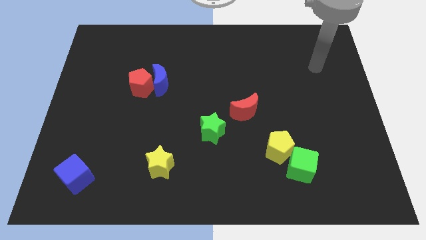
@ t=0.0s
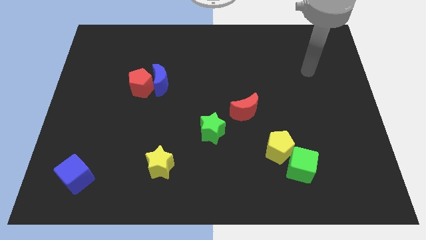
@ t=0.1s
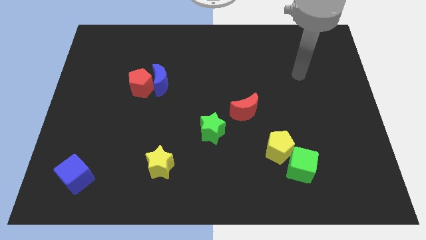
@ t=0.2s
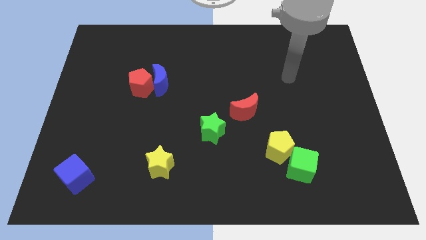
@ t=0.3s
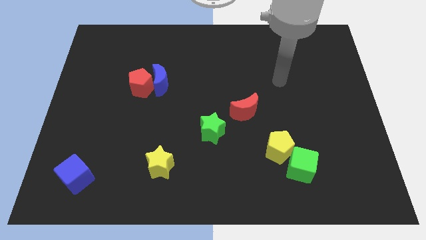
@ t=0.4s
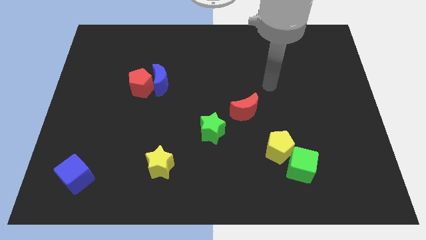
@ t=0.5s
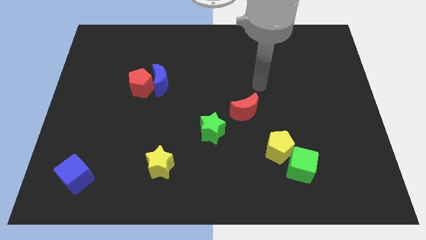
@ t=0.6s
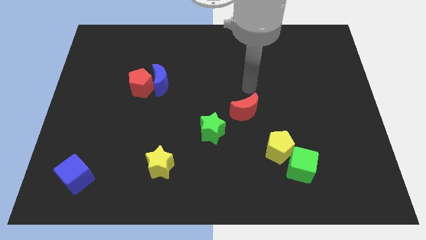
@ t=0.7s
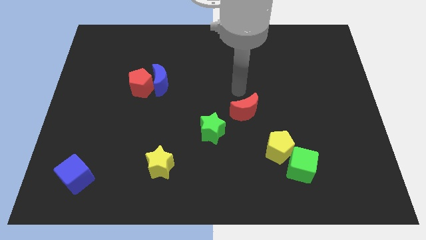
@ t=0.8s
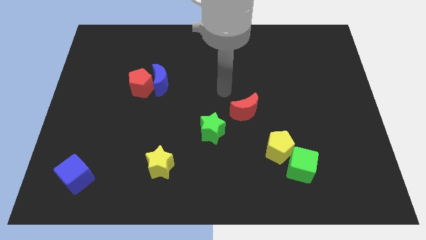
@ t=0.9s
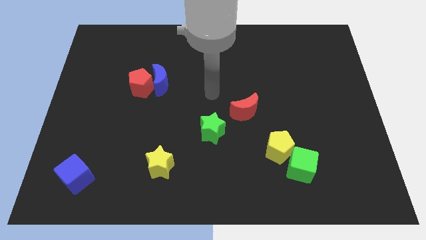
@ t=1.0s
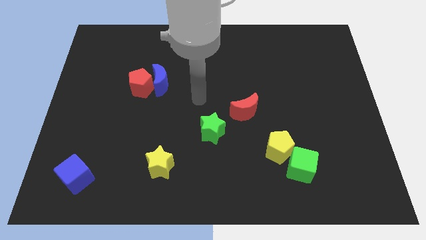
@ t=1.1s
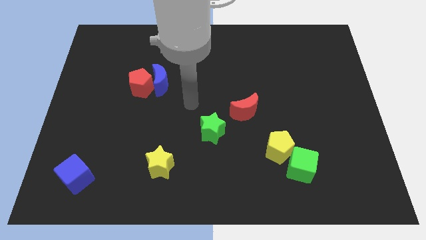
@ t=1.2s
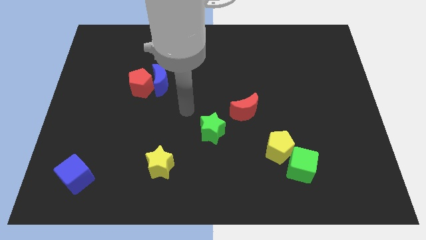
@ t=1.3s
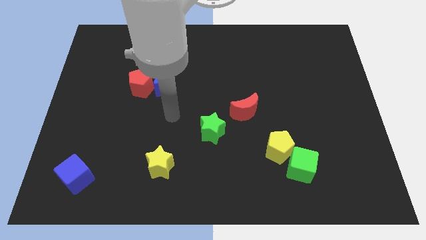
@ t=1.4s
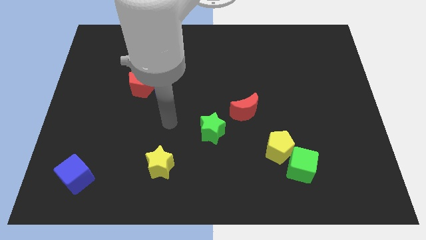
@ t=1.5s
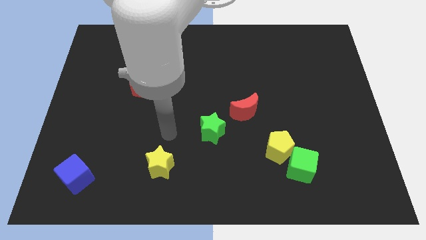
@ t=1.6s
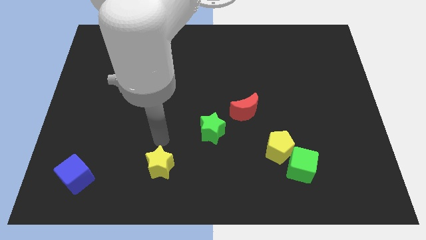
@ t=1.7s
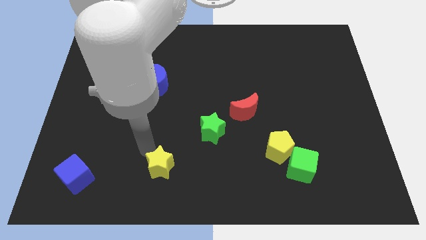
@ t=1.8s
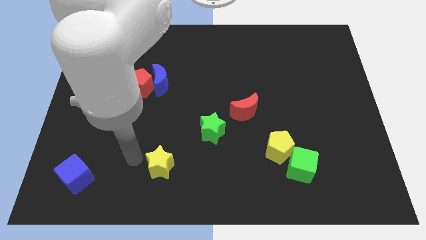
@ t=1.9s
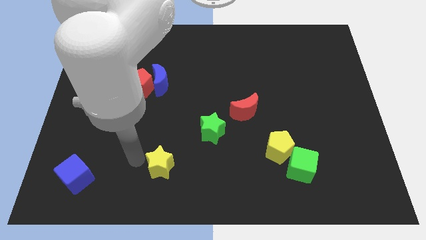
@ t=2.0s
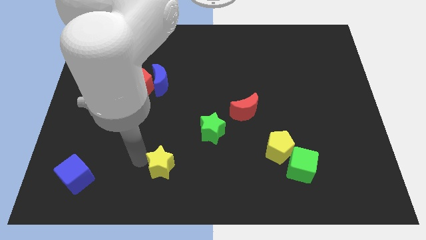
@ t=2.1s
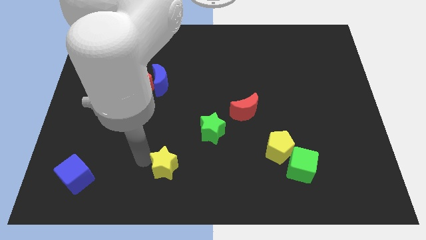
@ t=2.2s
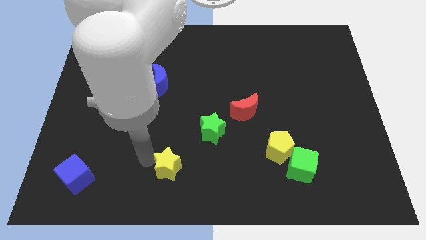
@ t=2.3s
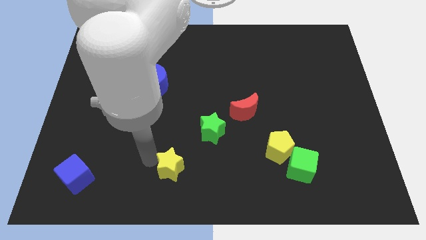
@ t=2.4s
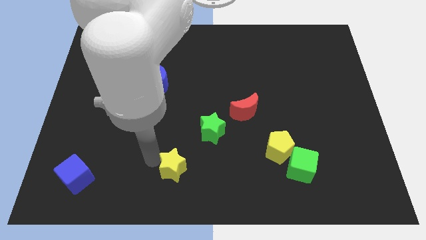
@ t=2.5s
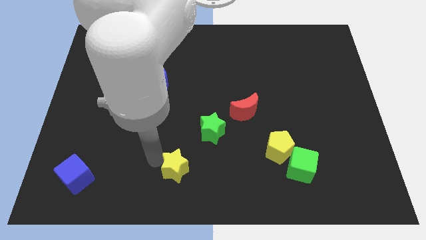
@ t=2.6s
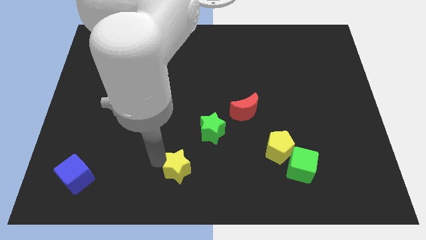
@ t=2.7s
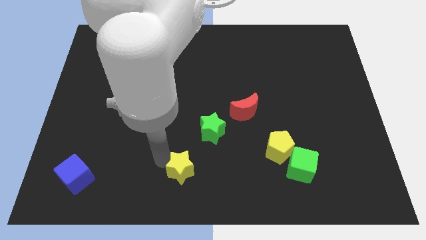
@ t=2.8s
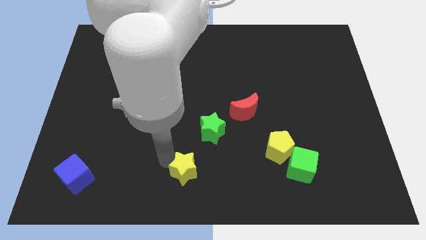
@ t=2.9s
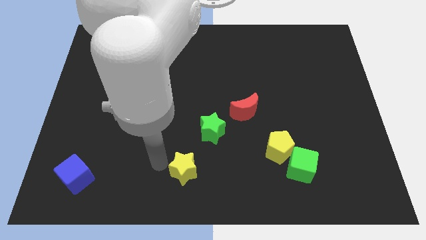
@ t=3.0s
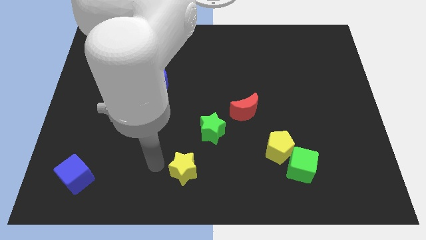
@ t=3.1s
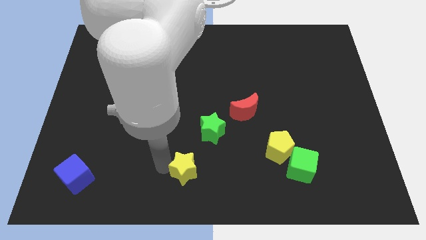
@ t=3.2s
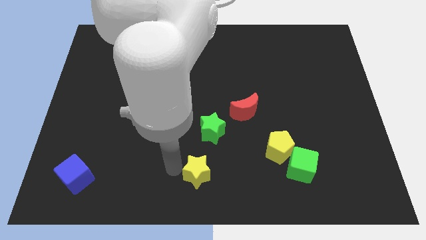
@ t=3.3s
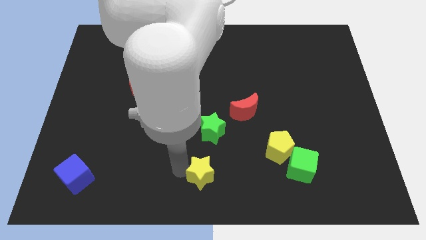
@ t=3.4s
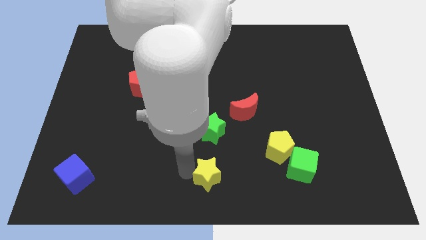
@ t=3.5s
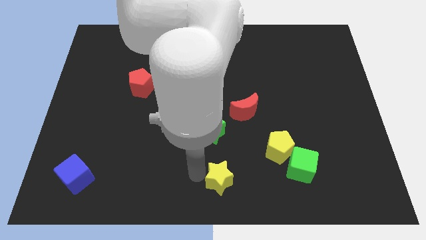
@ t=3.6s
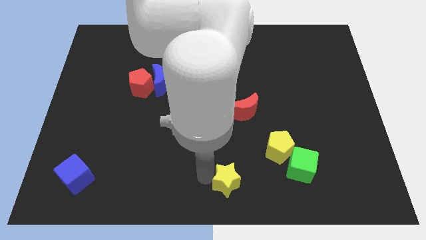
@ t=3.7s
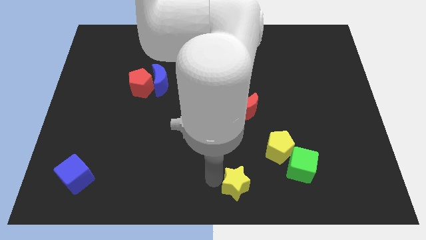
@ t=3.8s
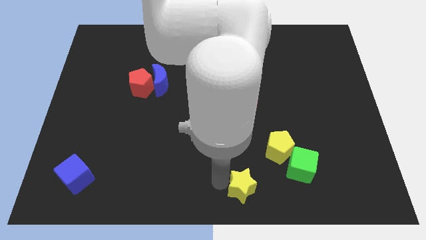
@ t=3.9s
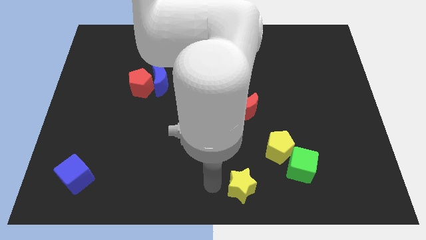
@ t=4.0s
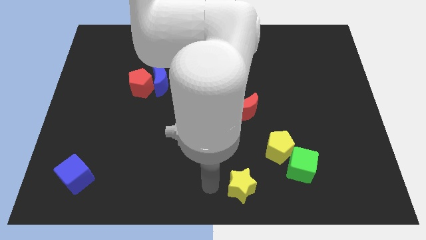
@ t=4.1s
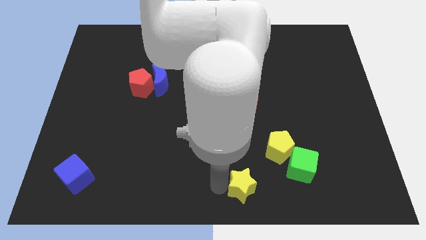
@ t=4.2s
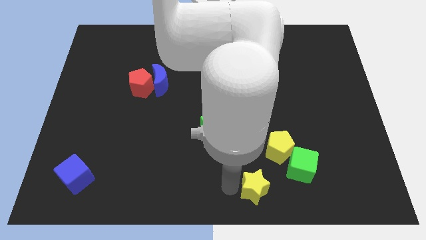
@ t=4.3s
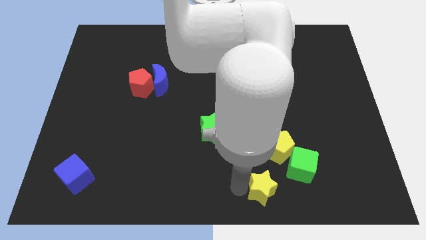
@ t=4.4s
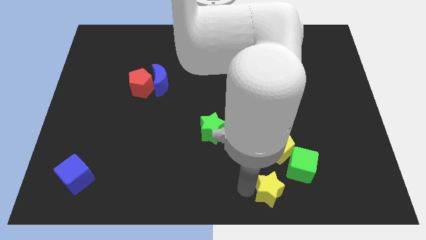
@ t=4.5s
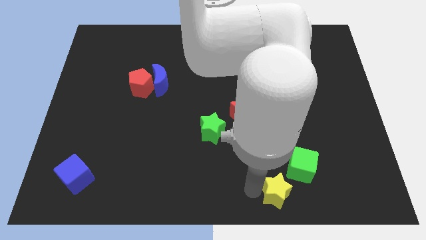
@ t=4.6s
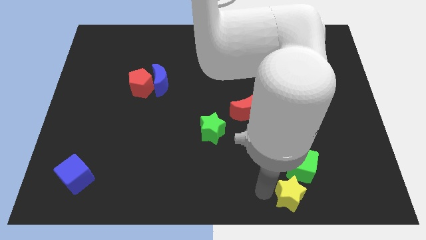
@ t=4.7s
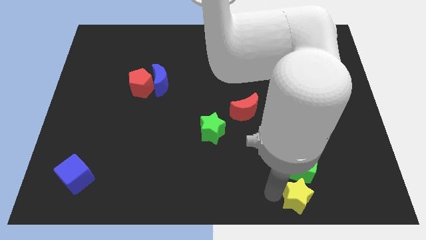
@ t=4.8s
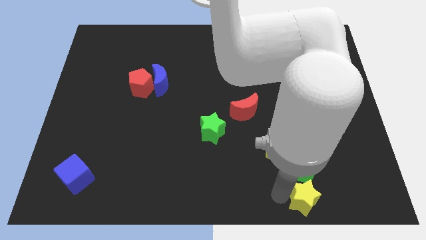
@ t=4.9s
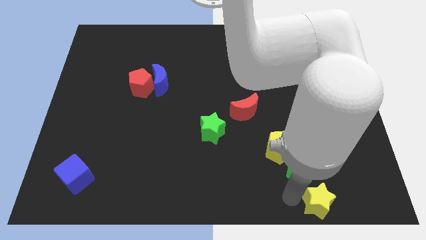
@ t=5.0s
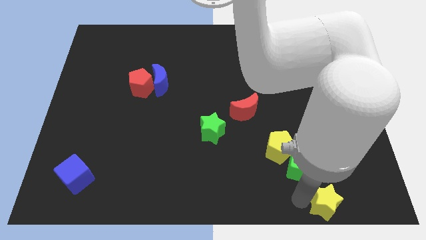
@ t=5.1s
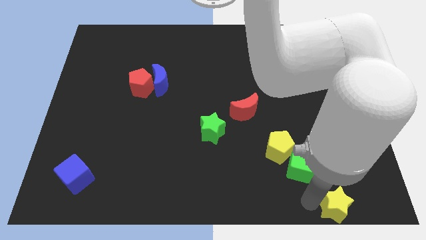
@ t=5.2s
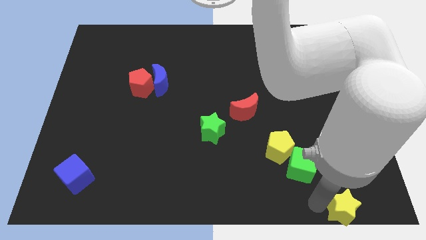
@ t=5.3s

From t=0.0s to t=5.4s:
move the yellow star to the lower right corner

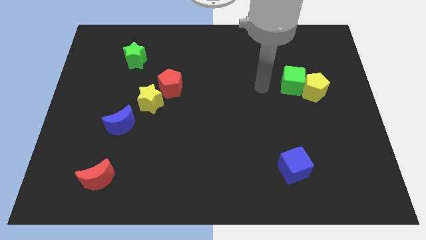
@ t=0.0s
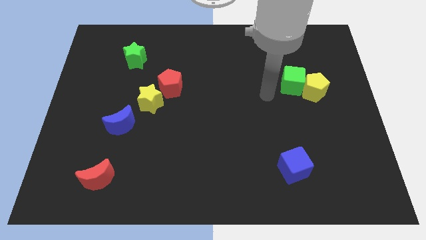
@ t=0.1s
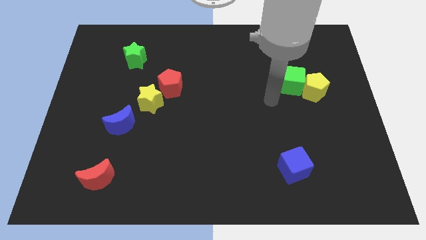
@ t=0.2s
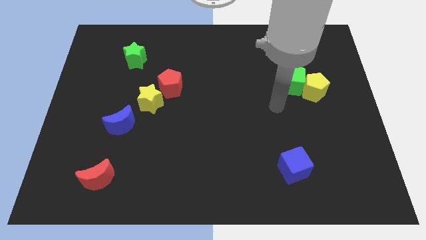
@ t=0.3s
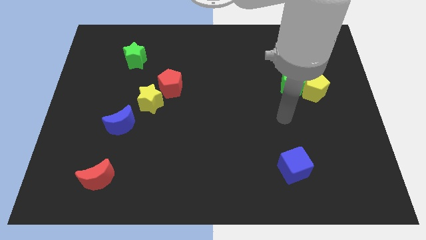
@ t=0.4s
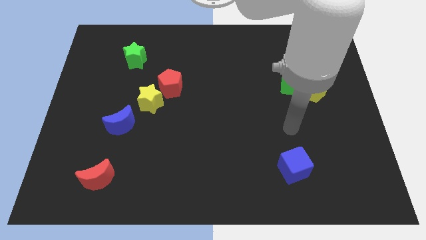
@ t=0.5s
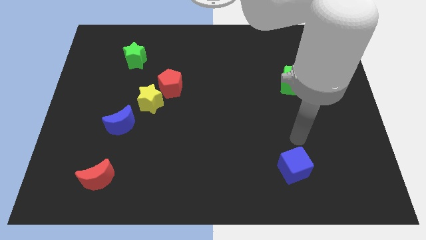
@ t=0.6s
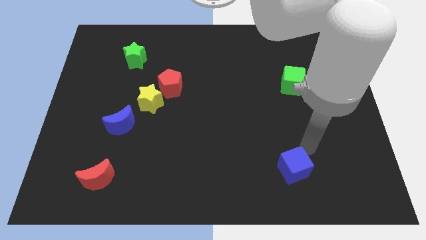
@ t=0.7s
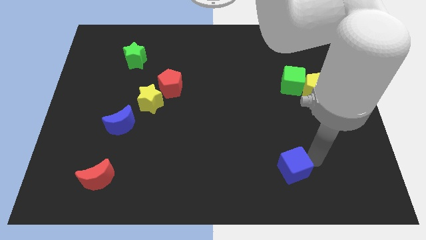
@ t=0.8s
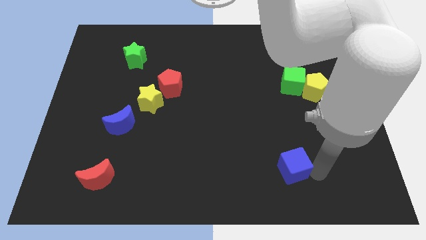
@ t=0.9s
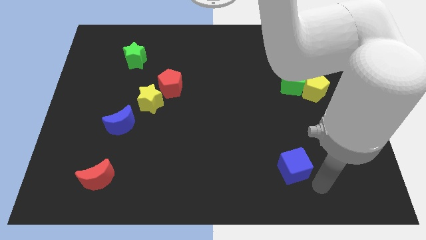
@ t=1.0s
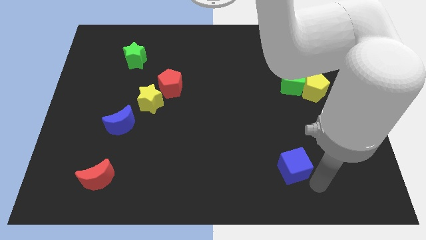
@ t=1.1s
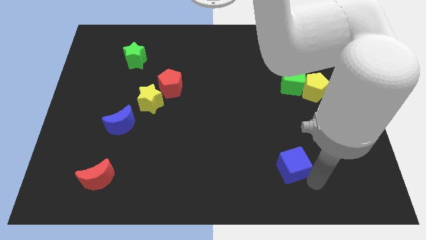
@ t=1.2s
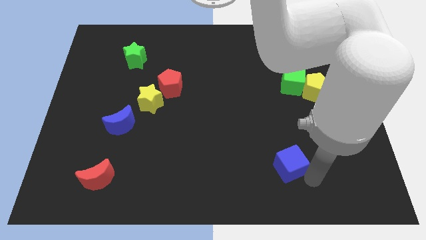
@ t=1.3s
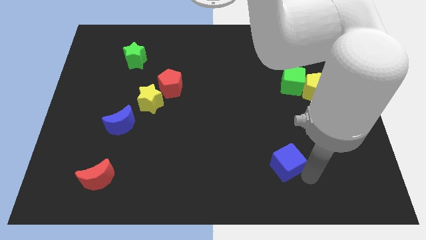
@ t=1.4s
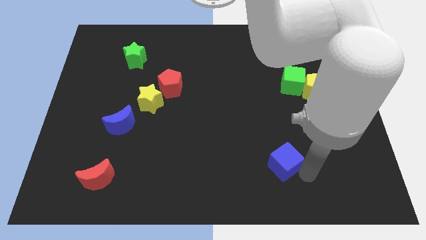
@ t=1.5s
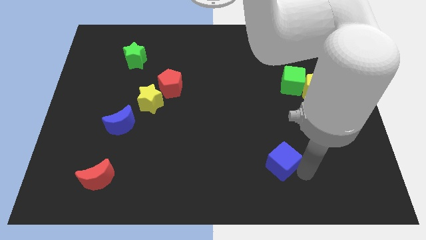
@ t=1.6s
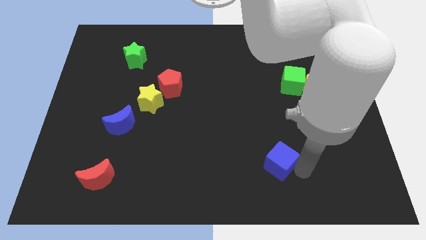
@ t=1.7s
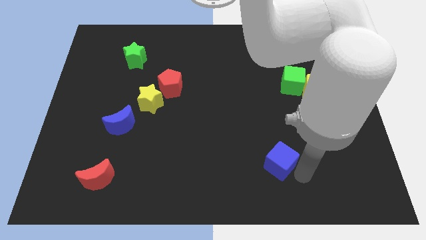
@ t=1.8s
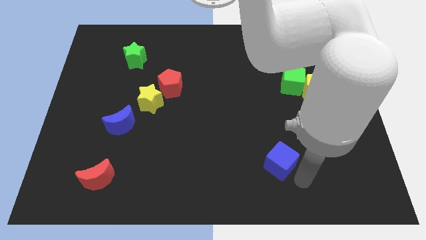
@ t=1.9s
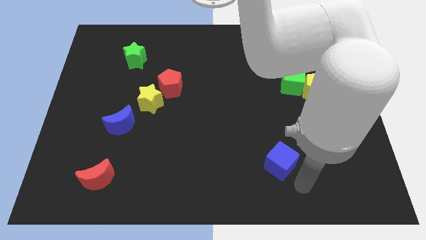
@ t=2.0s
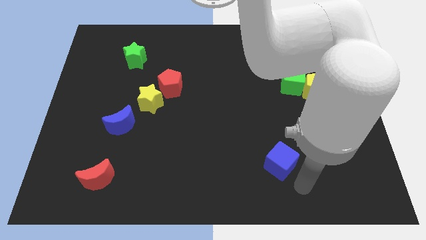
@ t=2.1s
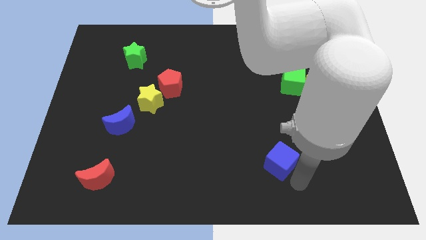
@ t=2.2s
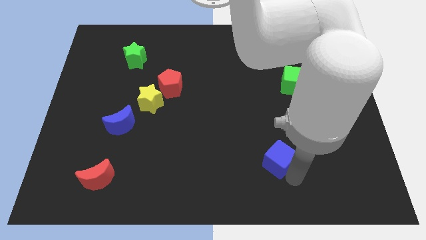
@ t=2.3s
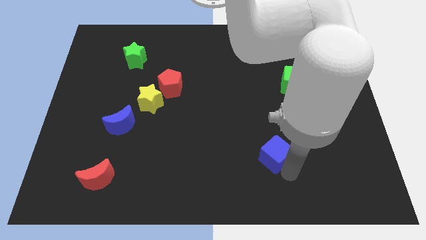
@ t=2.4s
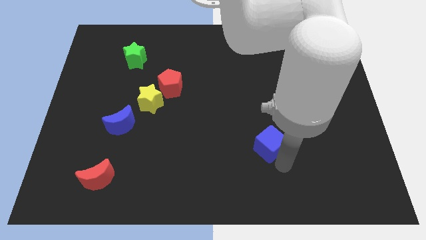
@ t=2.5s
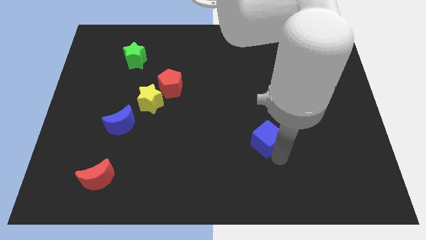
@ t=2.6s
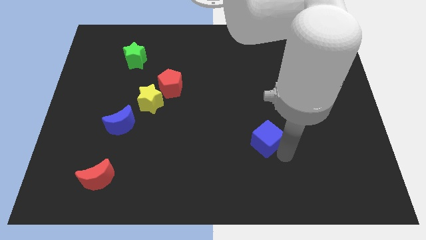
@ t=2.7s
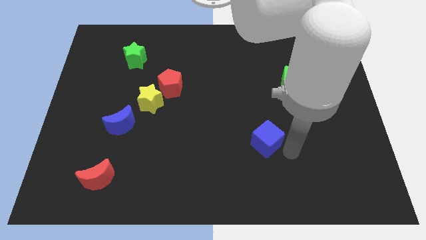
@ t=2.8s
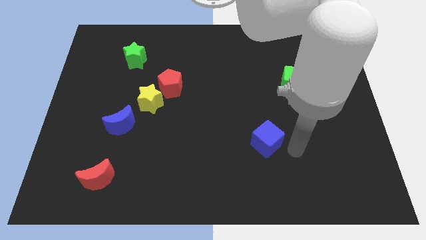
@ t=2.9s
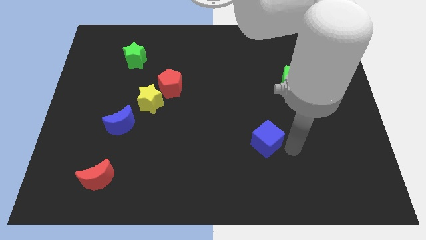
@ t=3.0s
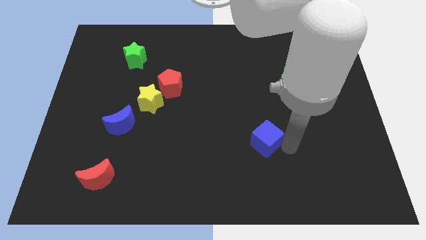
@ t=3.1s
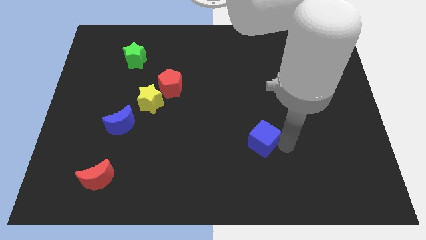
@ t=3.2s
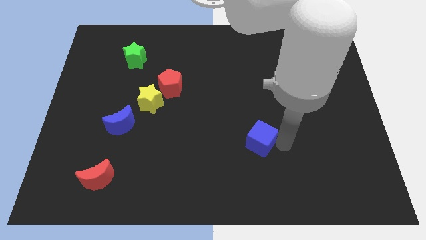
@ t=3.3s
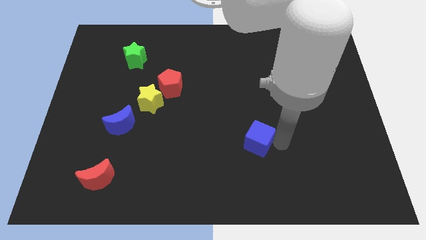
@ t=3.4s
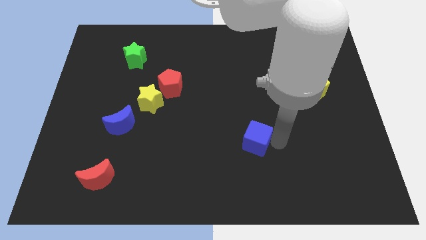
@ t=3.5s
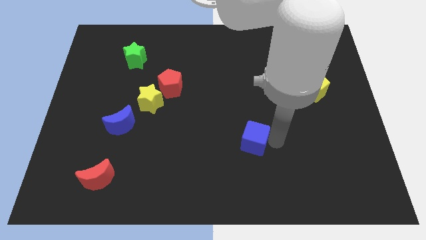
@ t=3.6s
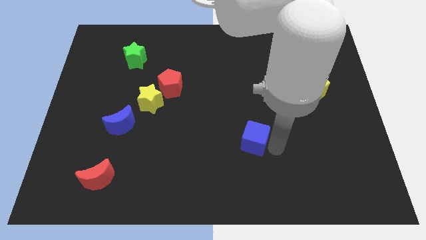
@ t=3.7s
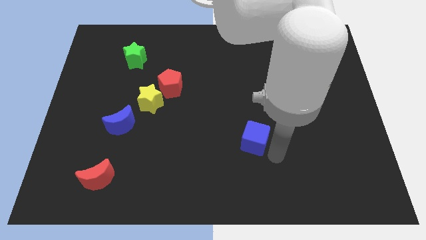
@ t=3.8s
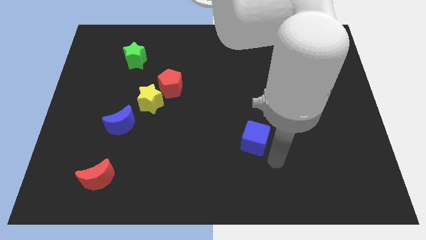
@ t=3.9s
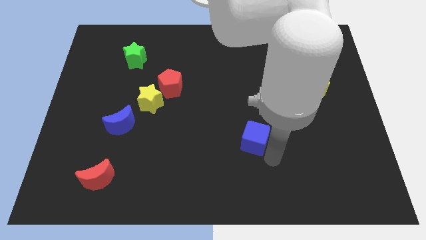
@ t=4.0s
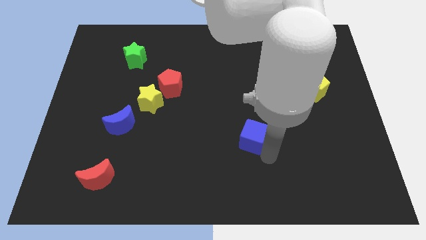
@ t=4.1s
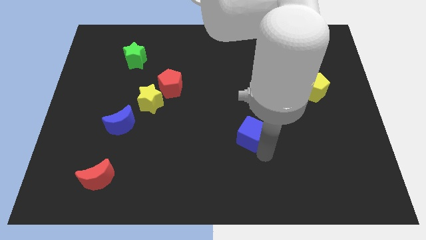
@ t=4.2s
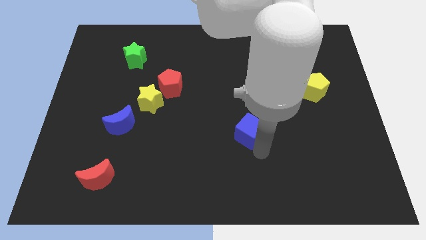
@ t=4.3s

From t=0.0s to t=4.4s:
slide the blue cube to the center of the board
